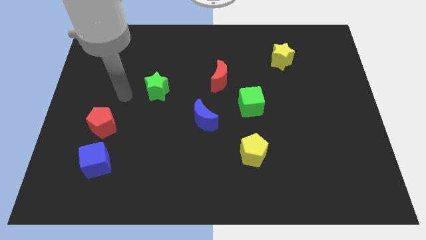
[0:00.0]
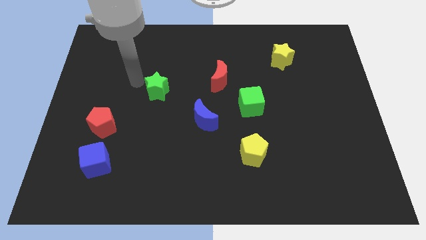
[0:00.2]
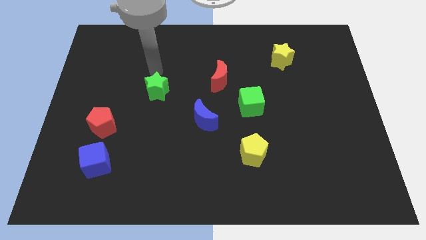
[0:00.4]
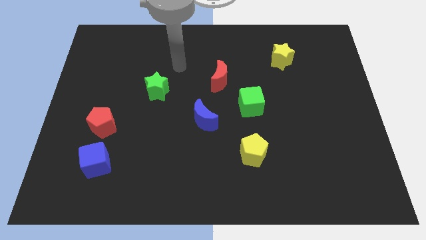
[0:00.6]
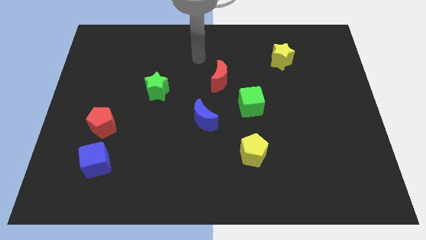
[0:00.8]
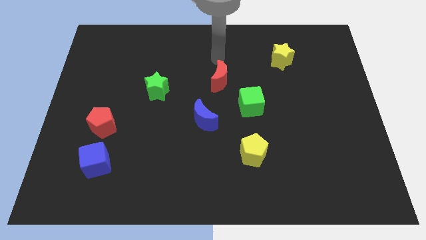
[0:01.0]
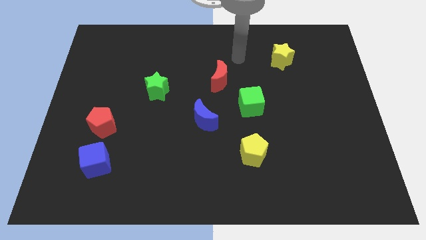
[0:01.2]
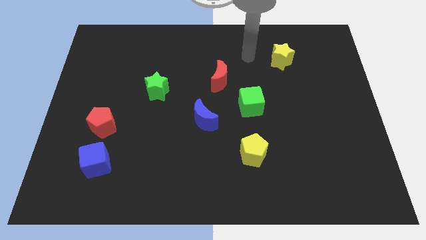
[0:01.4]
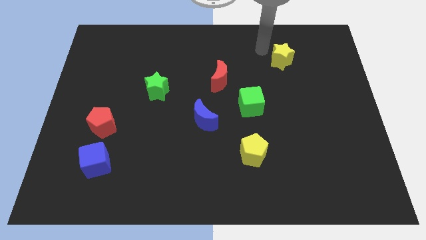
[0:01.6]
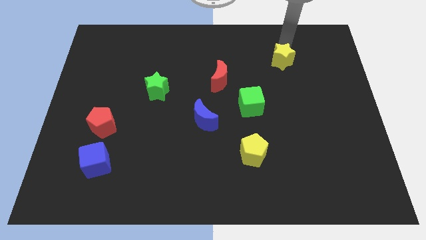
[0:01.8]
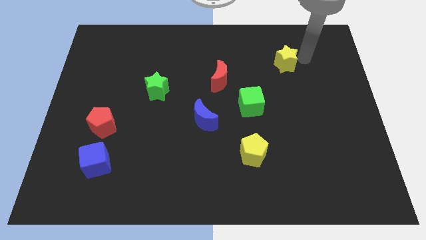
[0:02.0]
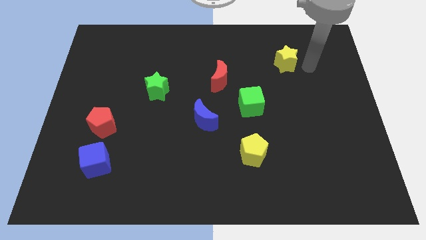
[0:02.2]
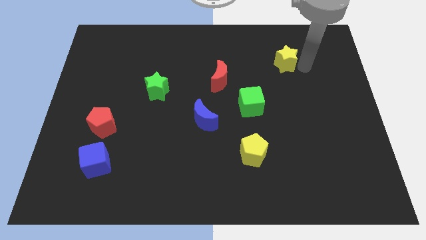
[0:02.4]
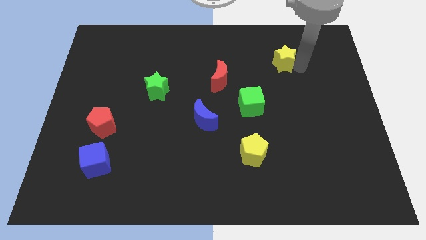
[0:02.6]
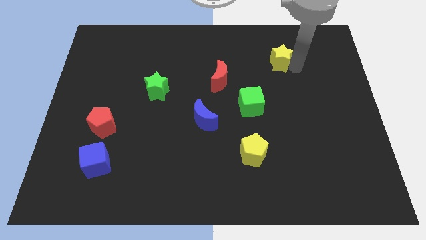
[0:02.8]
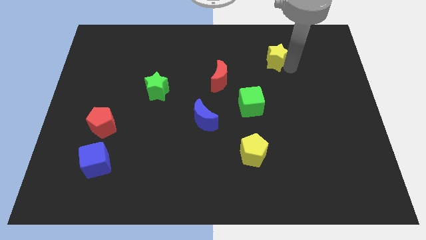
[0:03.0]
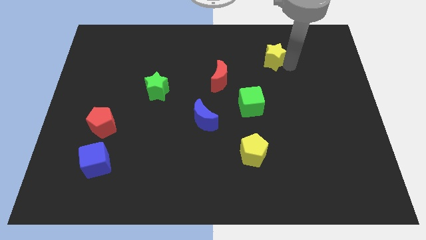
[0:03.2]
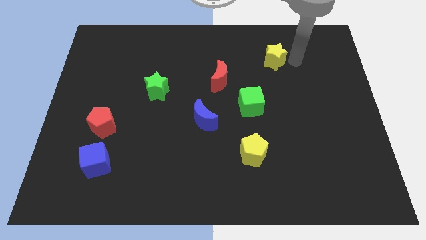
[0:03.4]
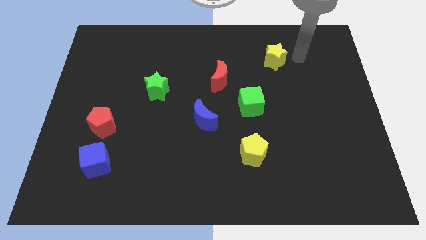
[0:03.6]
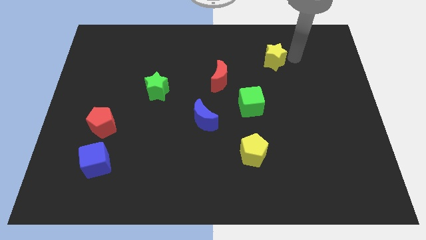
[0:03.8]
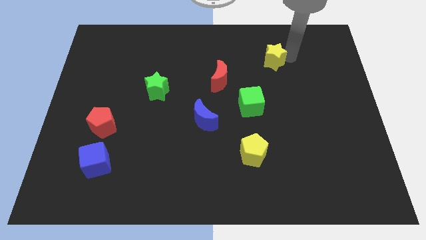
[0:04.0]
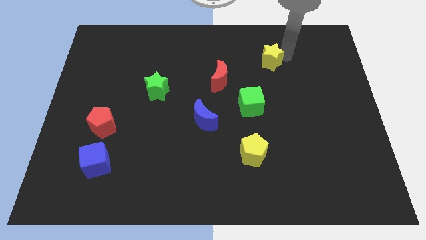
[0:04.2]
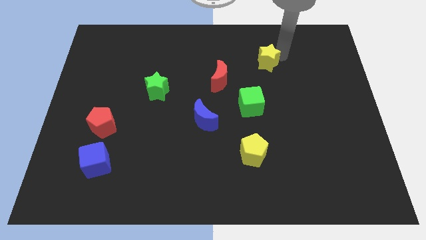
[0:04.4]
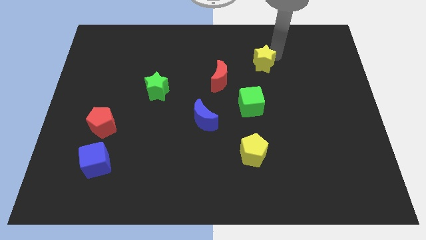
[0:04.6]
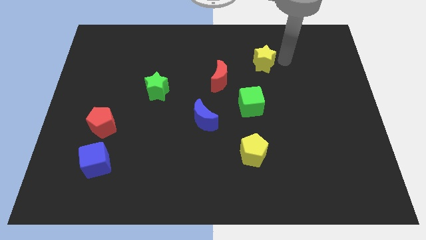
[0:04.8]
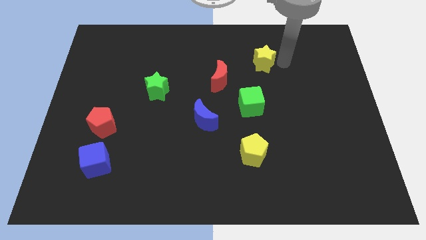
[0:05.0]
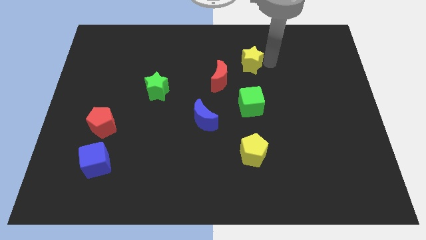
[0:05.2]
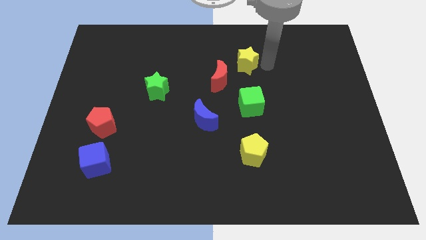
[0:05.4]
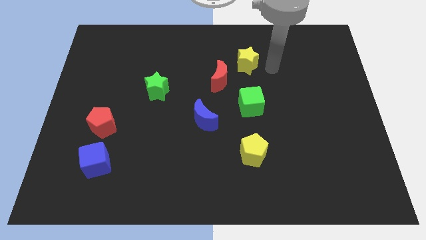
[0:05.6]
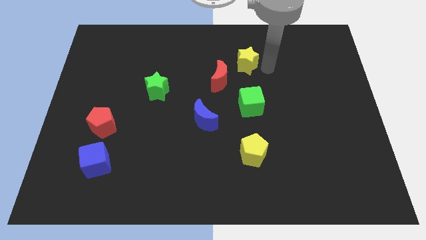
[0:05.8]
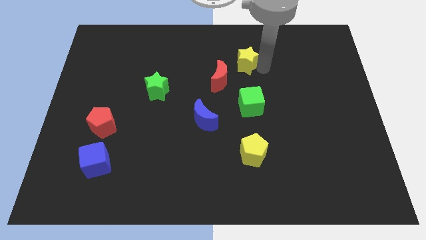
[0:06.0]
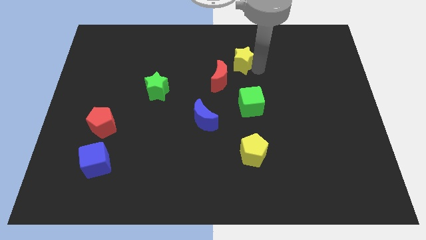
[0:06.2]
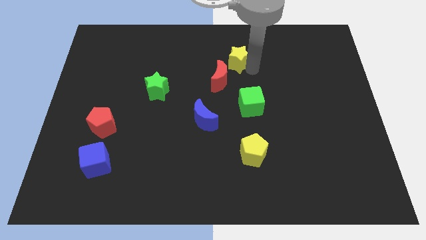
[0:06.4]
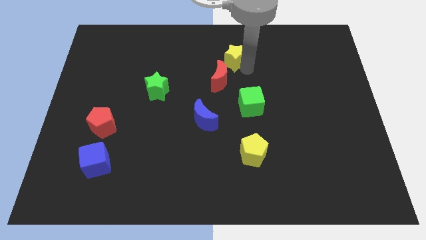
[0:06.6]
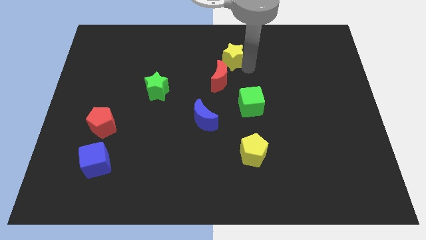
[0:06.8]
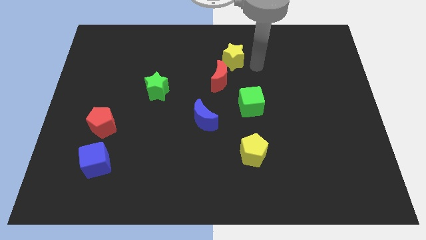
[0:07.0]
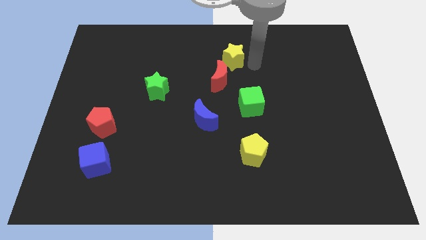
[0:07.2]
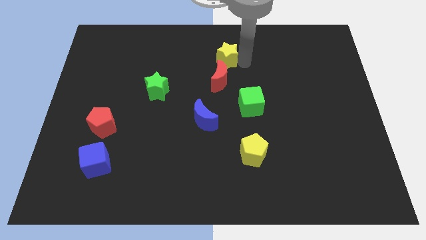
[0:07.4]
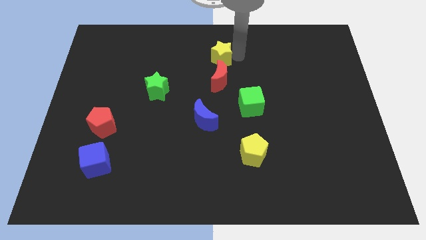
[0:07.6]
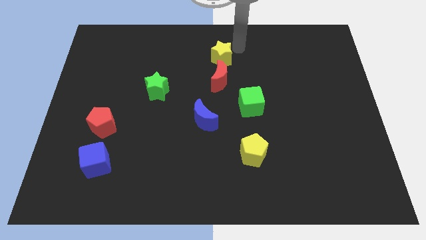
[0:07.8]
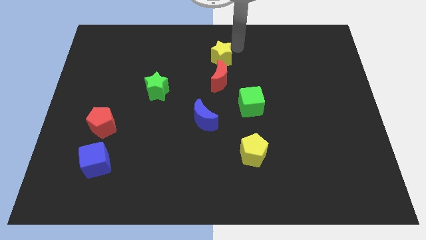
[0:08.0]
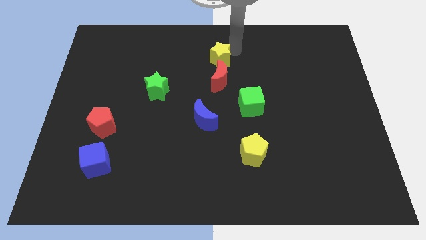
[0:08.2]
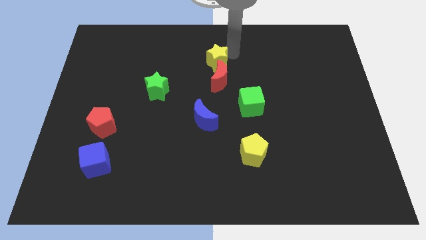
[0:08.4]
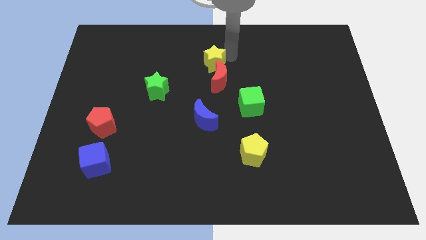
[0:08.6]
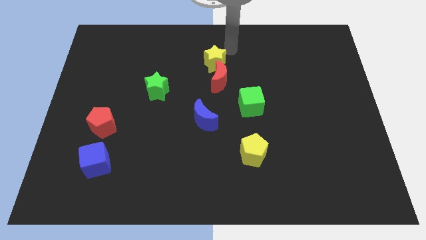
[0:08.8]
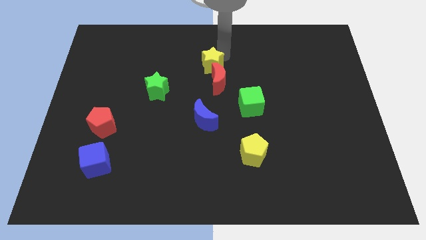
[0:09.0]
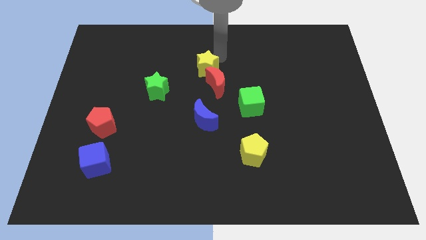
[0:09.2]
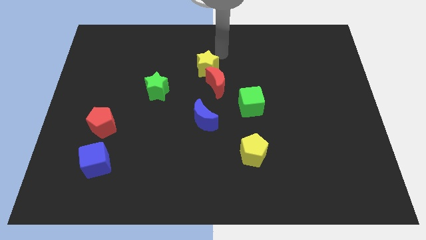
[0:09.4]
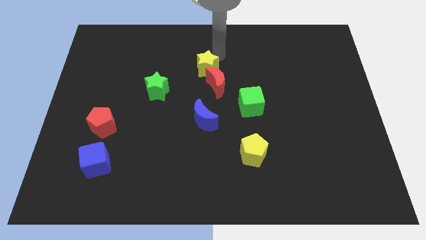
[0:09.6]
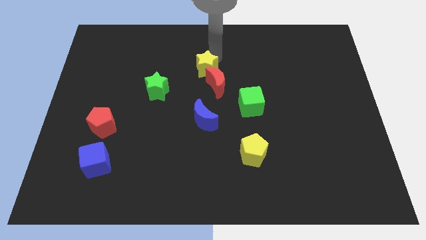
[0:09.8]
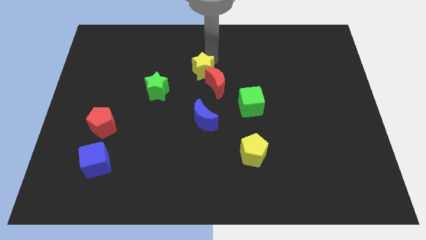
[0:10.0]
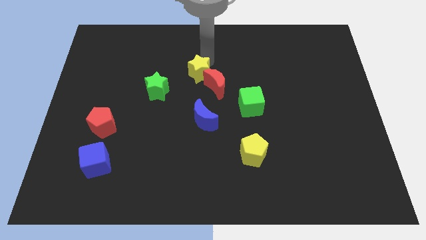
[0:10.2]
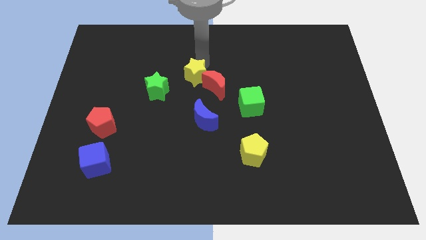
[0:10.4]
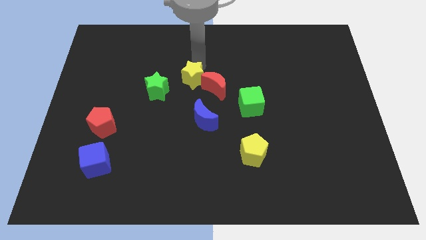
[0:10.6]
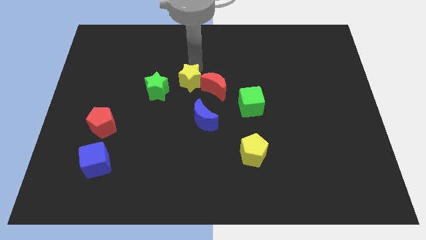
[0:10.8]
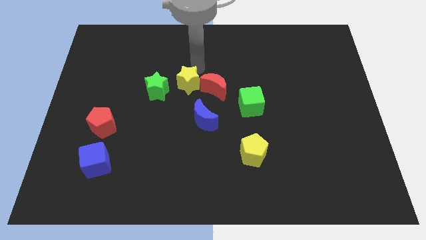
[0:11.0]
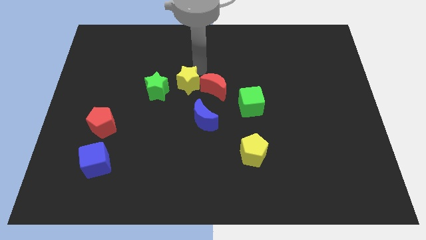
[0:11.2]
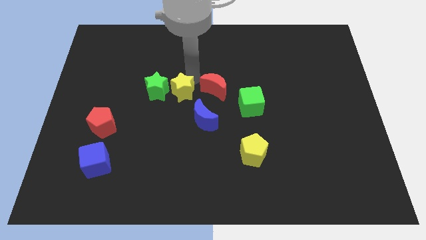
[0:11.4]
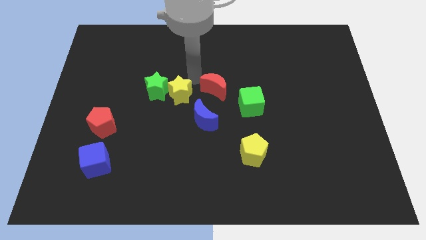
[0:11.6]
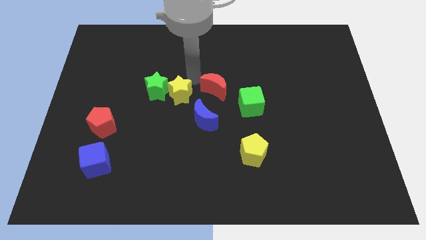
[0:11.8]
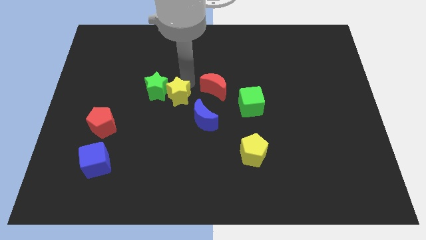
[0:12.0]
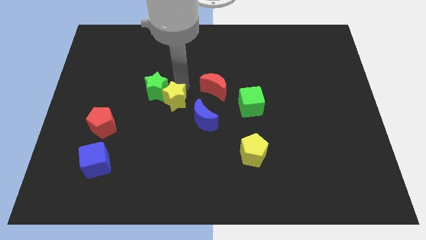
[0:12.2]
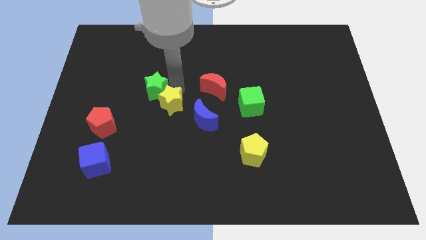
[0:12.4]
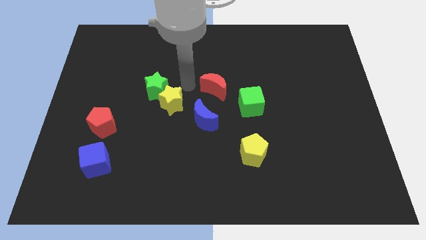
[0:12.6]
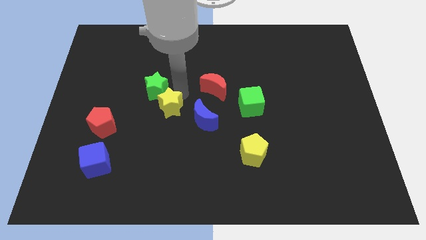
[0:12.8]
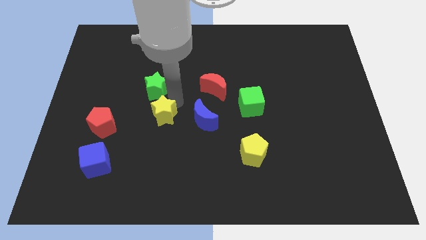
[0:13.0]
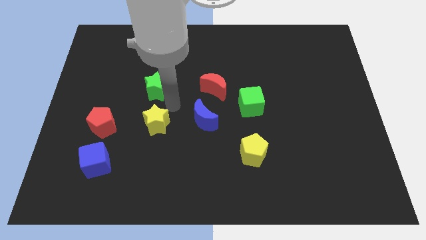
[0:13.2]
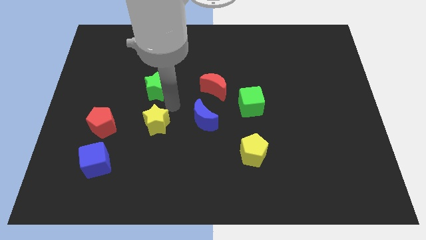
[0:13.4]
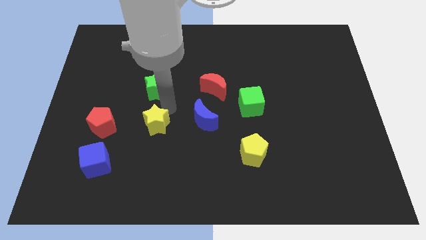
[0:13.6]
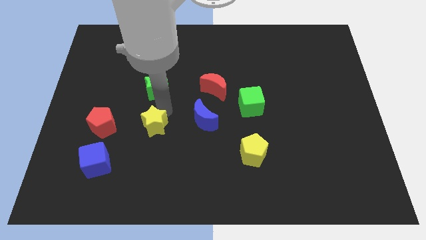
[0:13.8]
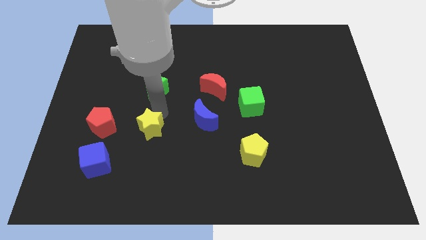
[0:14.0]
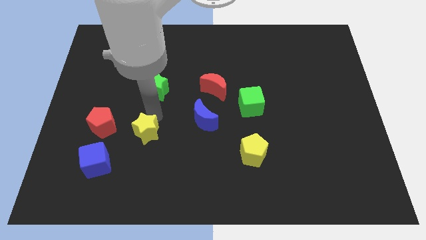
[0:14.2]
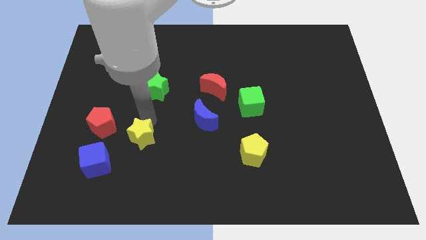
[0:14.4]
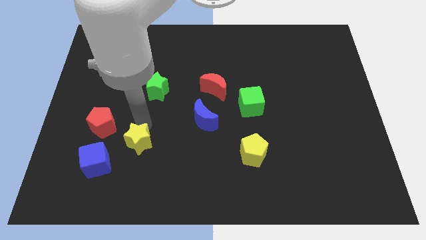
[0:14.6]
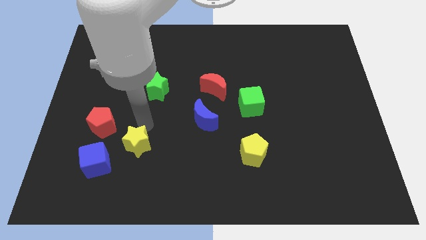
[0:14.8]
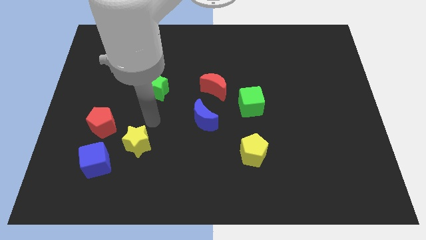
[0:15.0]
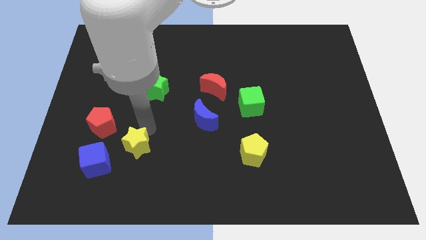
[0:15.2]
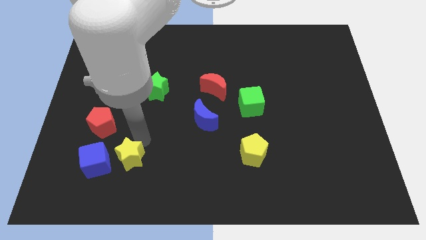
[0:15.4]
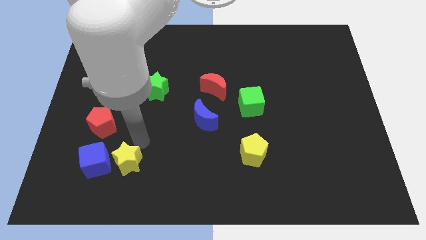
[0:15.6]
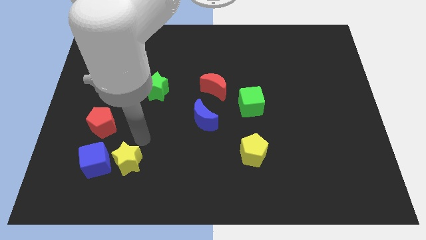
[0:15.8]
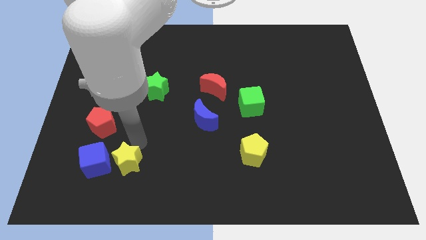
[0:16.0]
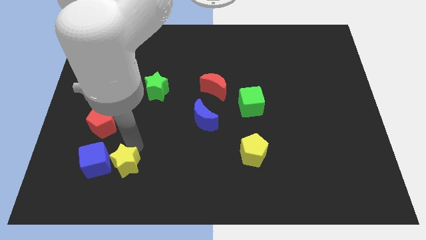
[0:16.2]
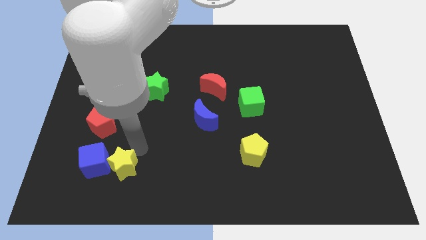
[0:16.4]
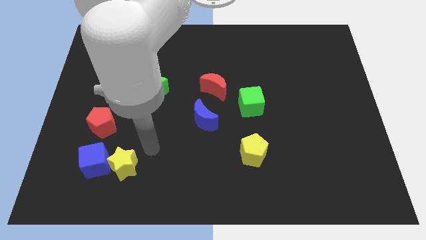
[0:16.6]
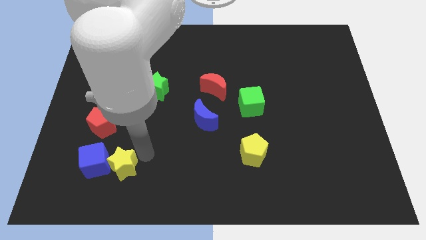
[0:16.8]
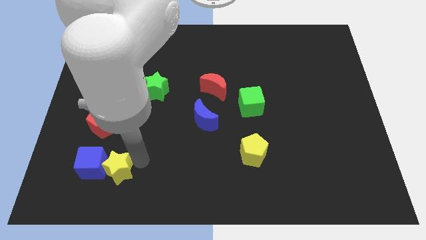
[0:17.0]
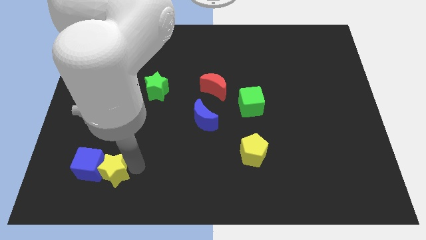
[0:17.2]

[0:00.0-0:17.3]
push the yellow star to the bottom of the red pentagon
